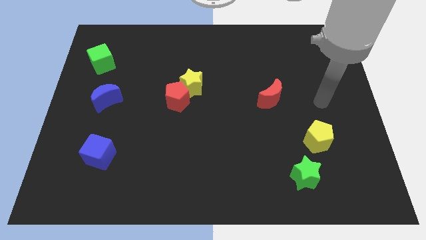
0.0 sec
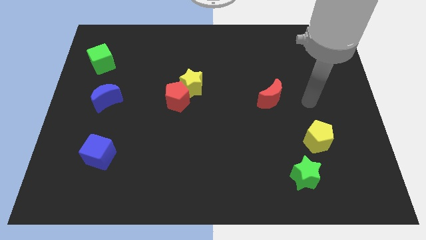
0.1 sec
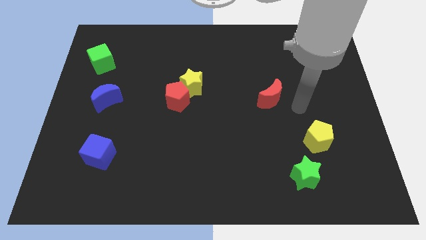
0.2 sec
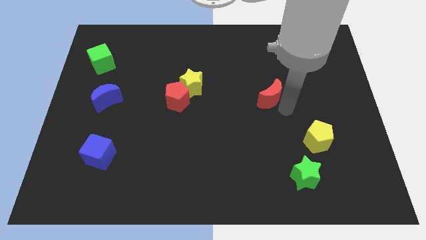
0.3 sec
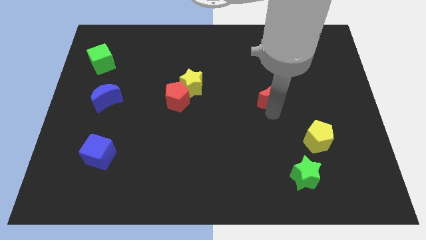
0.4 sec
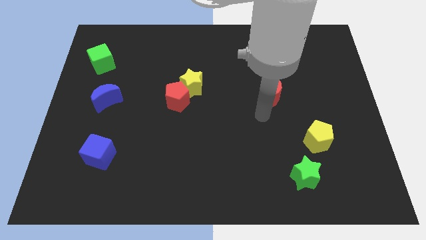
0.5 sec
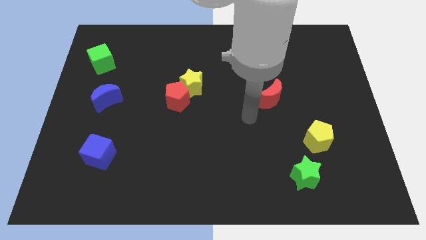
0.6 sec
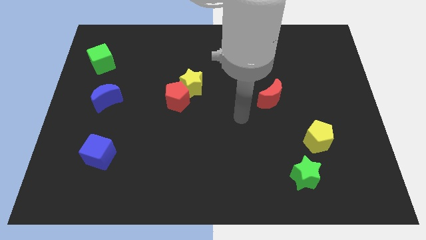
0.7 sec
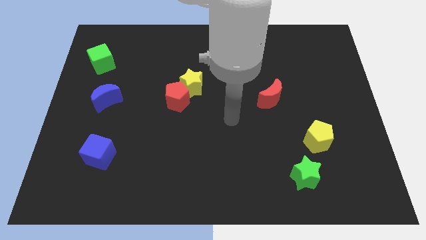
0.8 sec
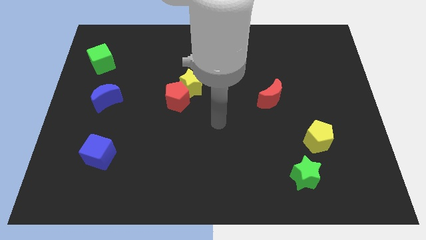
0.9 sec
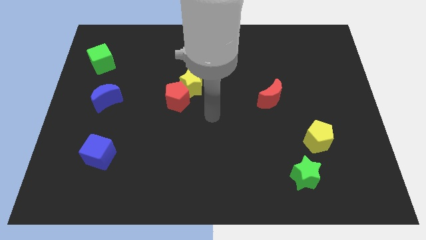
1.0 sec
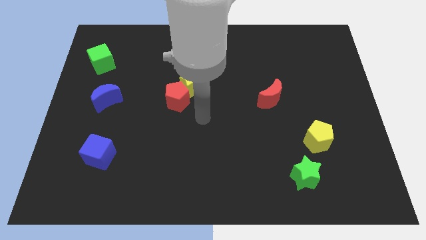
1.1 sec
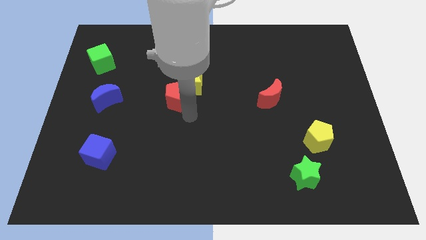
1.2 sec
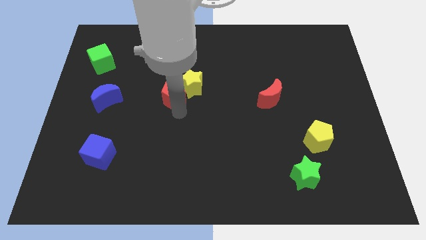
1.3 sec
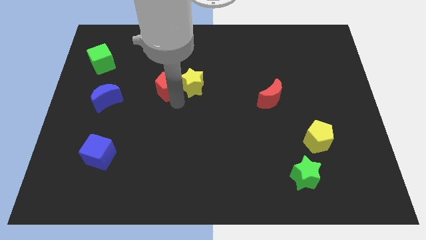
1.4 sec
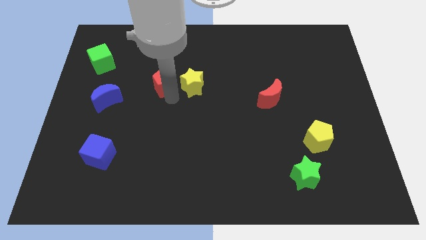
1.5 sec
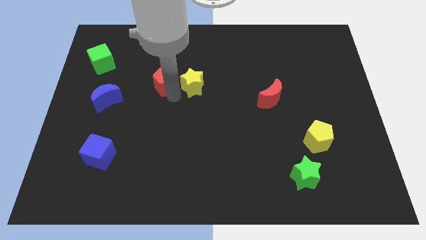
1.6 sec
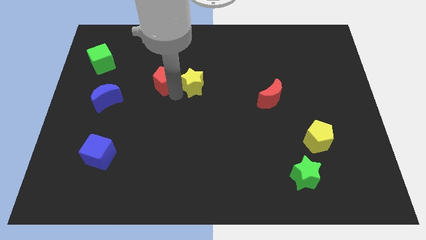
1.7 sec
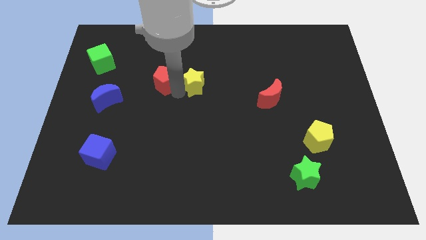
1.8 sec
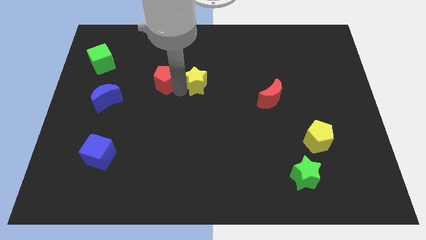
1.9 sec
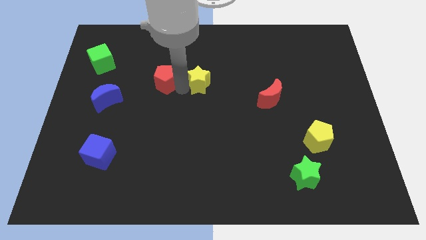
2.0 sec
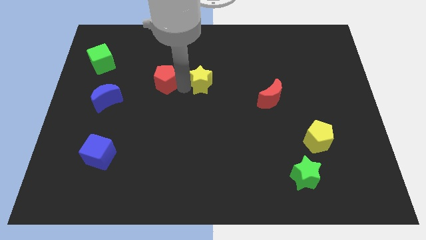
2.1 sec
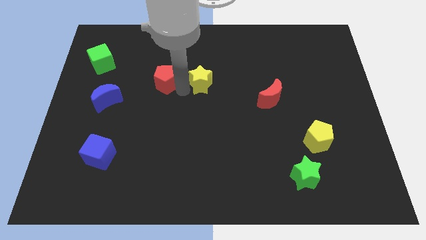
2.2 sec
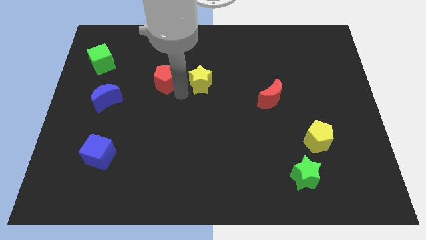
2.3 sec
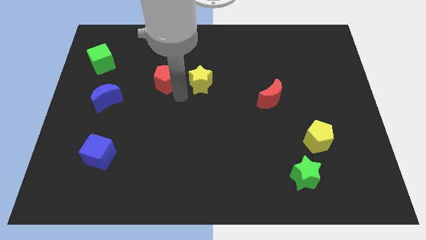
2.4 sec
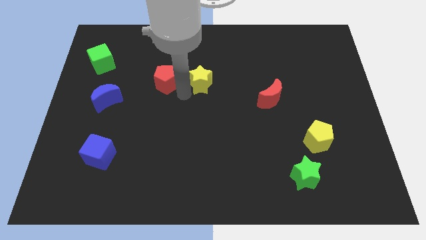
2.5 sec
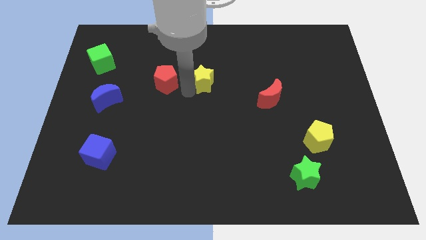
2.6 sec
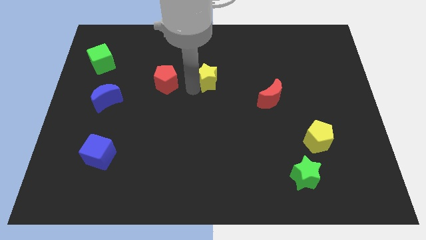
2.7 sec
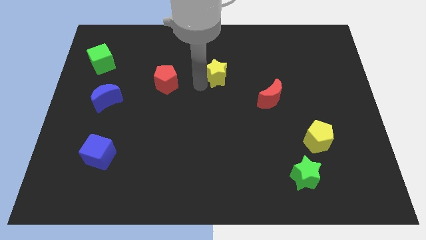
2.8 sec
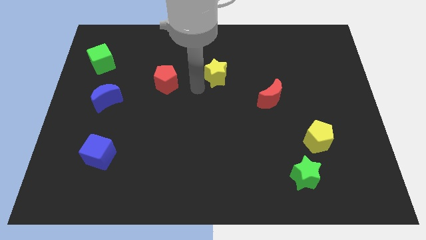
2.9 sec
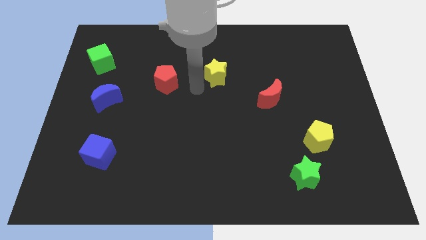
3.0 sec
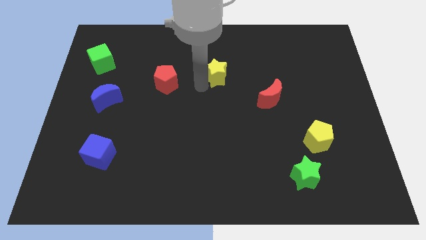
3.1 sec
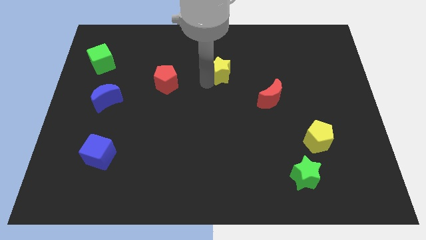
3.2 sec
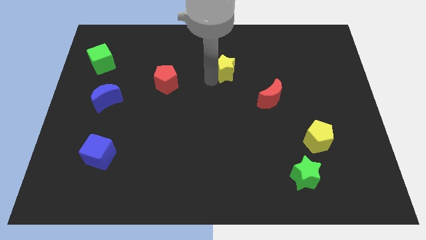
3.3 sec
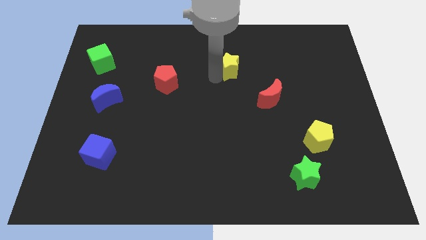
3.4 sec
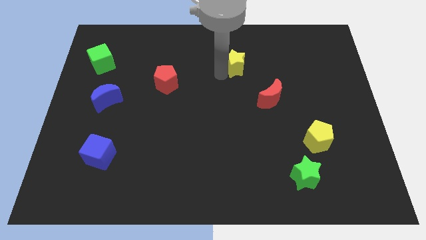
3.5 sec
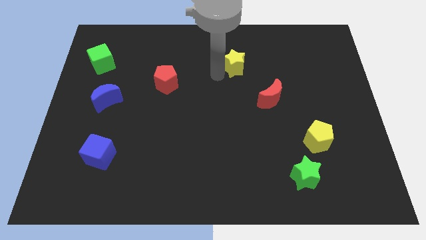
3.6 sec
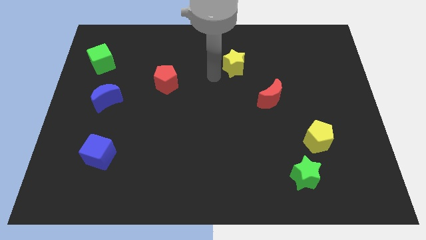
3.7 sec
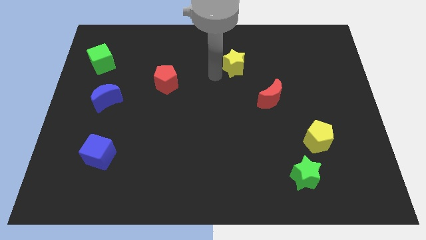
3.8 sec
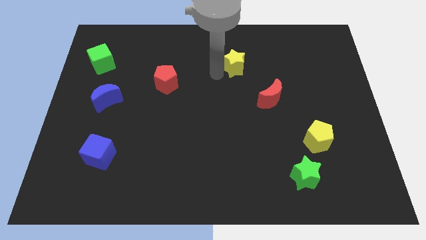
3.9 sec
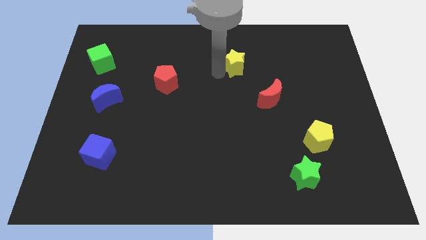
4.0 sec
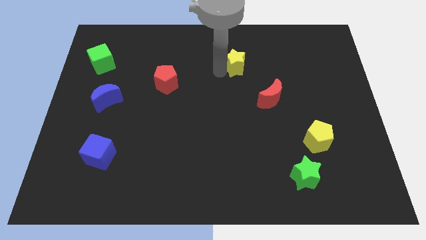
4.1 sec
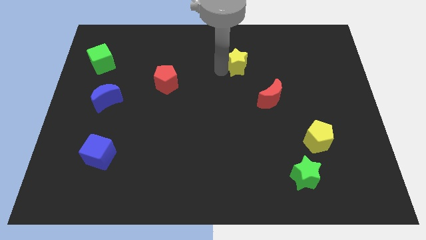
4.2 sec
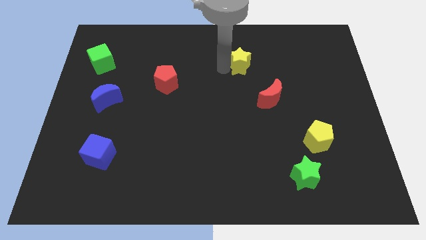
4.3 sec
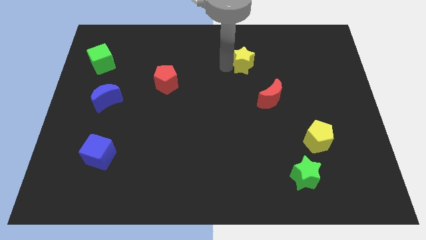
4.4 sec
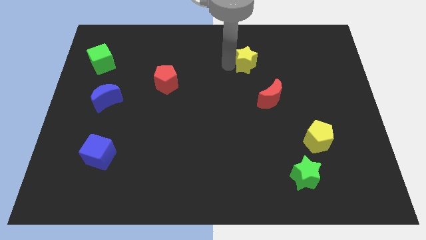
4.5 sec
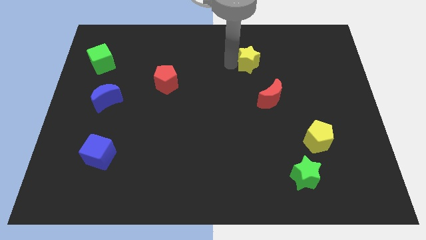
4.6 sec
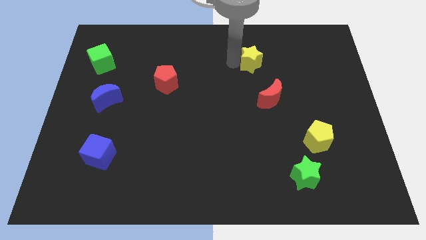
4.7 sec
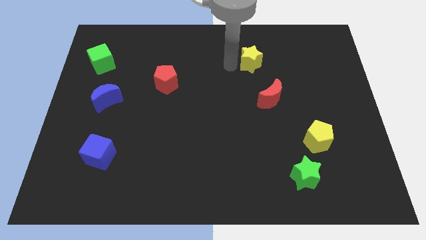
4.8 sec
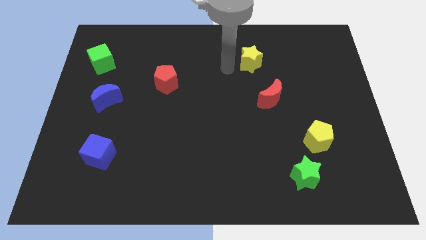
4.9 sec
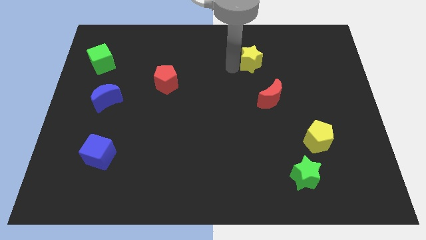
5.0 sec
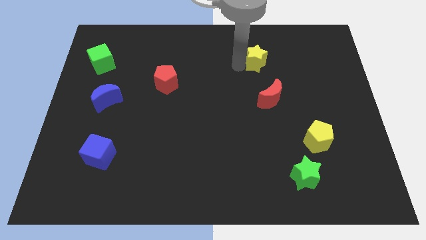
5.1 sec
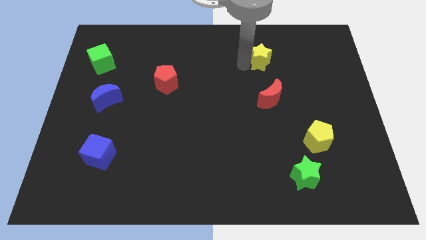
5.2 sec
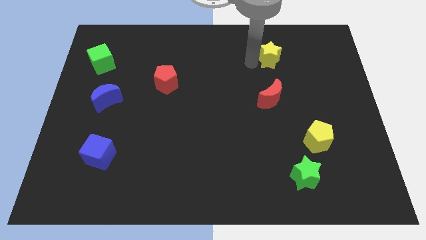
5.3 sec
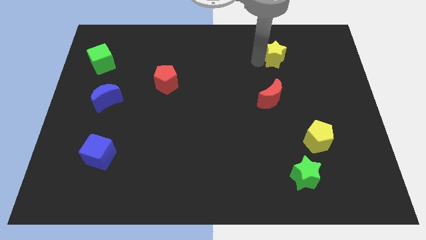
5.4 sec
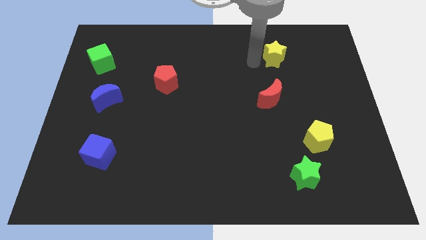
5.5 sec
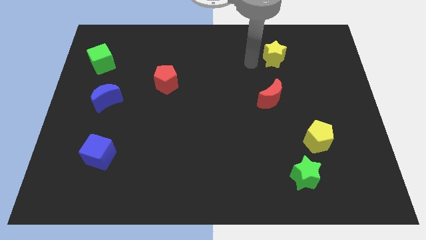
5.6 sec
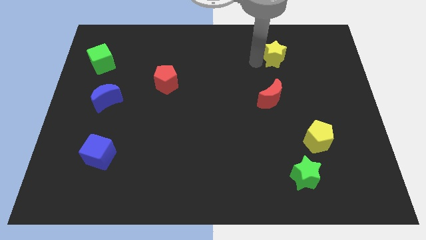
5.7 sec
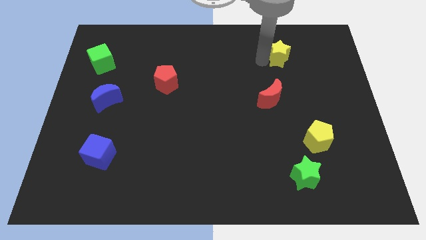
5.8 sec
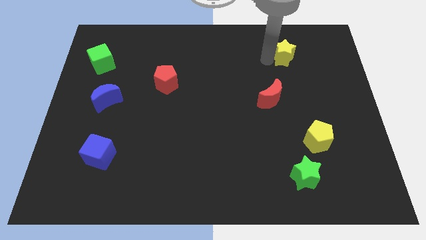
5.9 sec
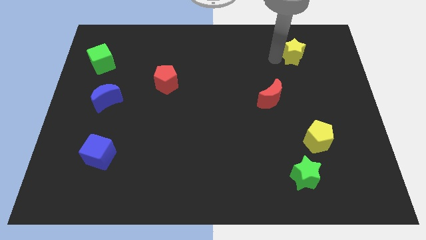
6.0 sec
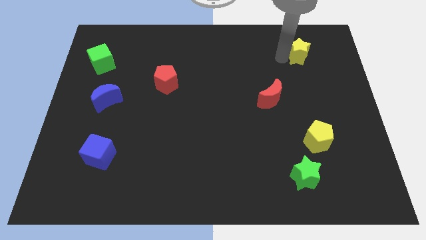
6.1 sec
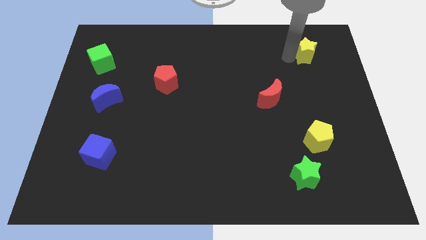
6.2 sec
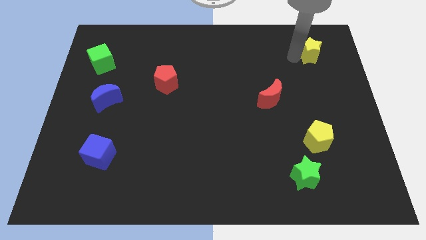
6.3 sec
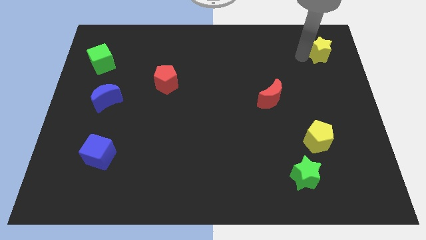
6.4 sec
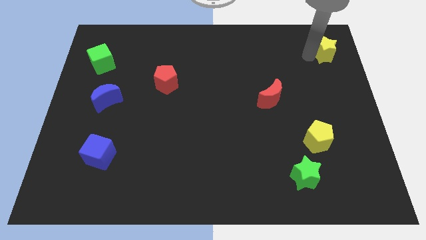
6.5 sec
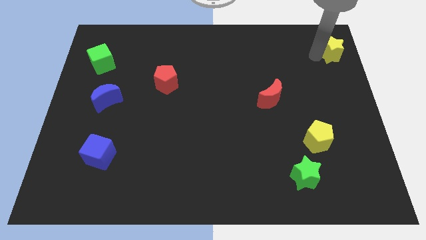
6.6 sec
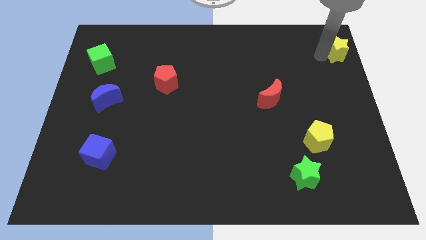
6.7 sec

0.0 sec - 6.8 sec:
slide the yellow star to the upper right corner
